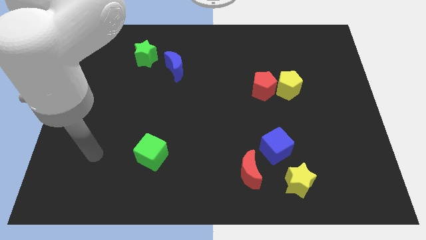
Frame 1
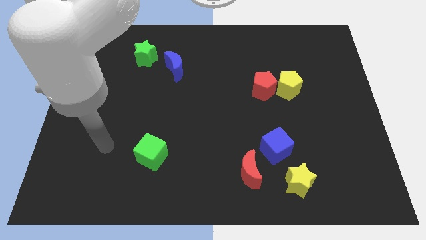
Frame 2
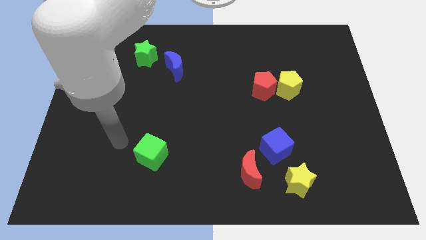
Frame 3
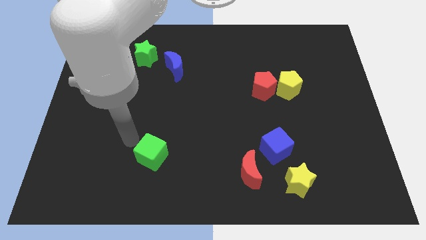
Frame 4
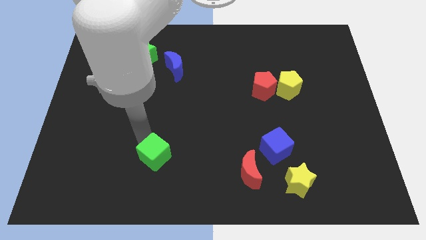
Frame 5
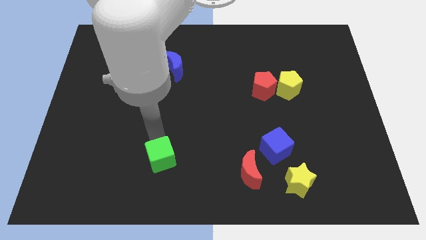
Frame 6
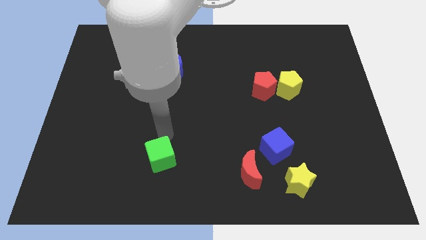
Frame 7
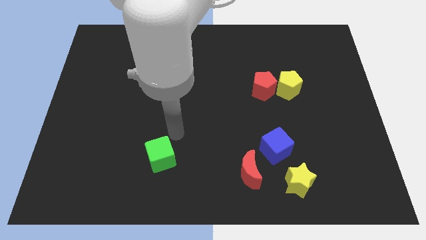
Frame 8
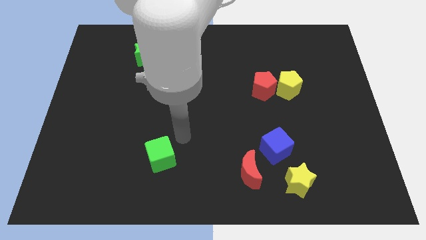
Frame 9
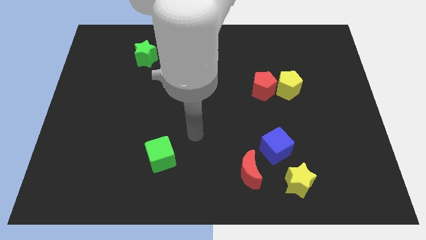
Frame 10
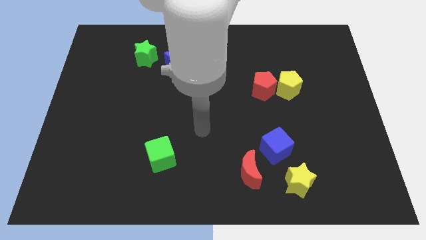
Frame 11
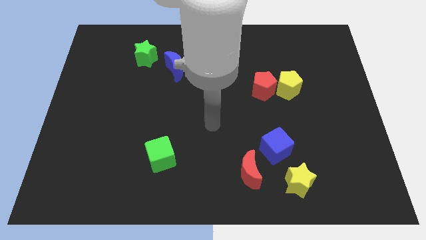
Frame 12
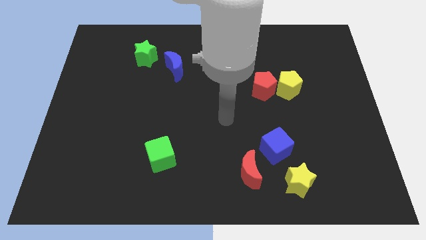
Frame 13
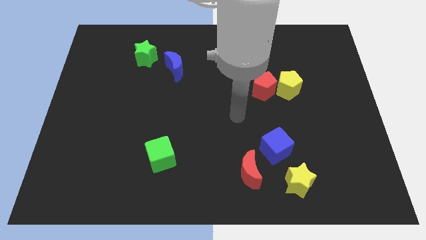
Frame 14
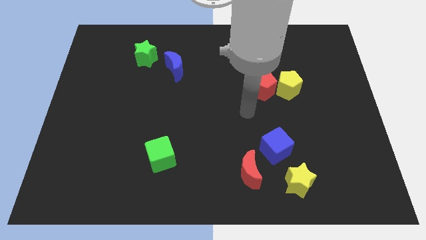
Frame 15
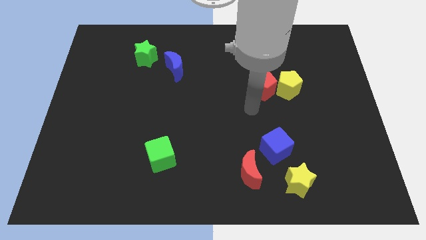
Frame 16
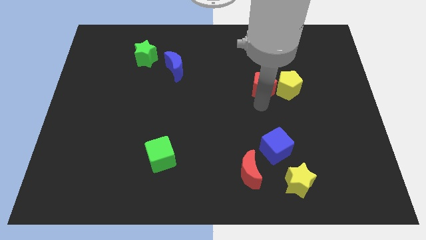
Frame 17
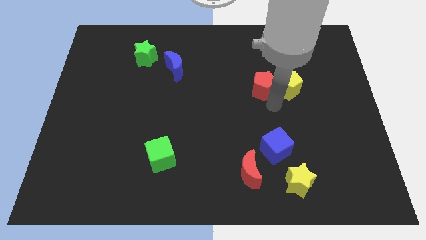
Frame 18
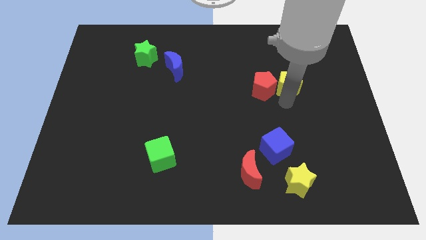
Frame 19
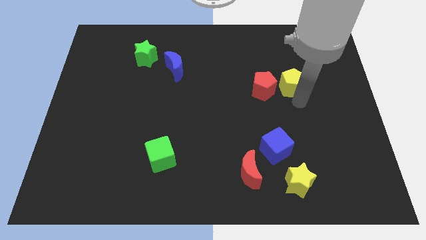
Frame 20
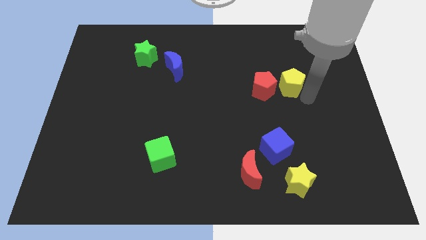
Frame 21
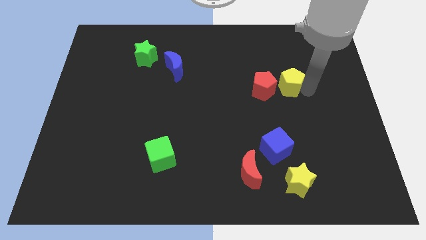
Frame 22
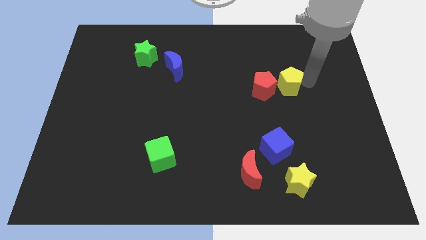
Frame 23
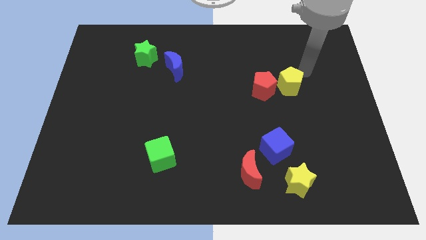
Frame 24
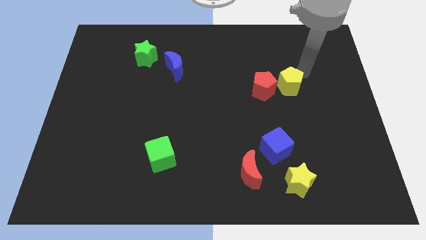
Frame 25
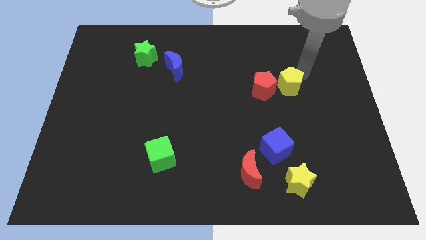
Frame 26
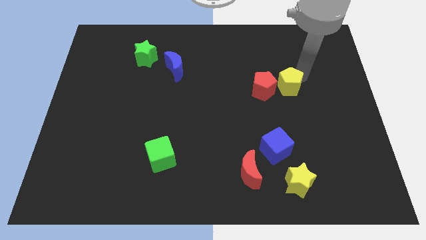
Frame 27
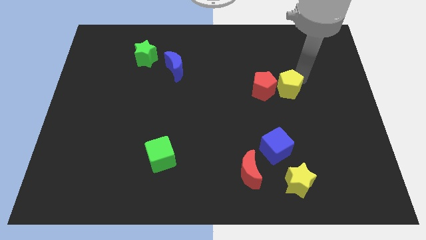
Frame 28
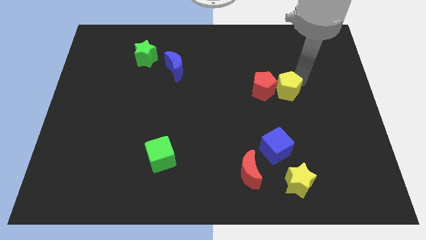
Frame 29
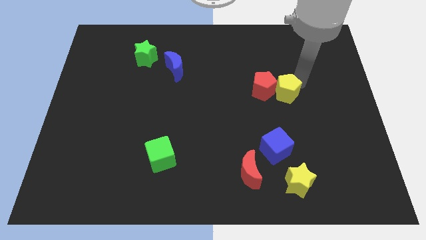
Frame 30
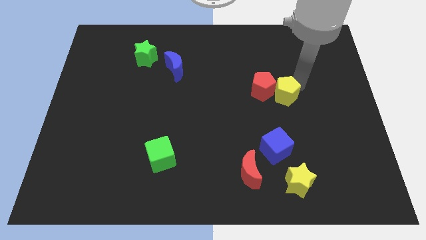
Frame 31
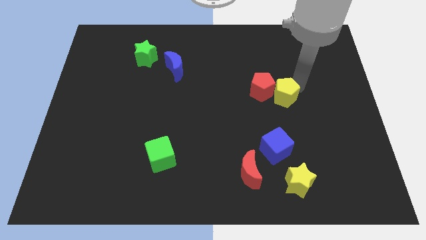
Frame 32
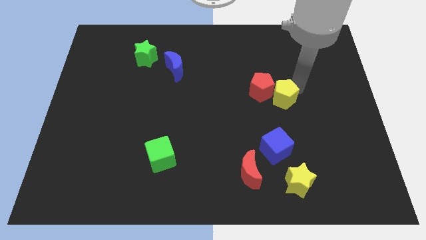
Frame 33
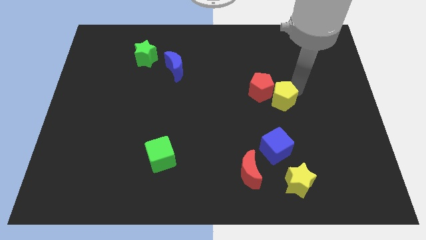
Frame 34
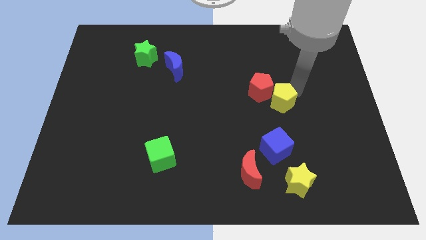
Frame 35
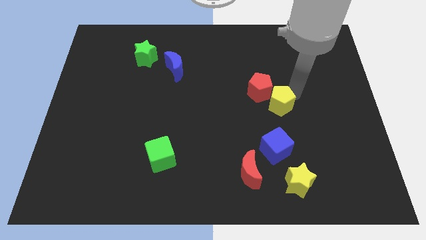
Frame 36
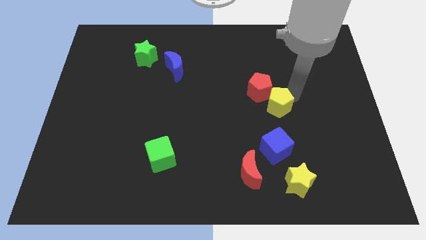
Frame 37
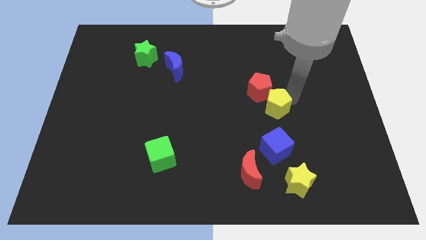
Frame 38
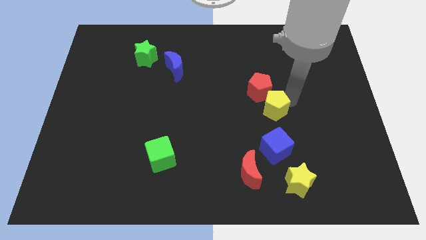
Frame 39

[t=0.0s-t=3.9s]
move the yellow pentagon somewhat downwards and then left

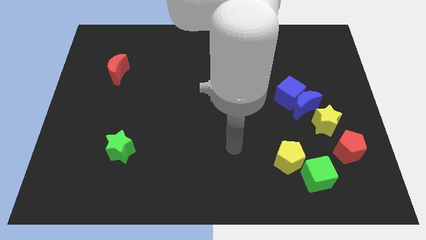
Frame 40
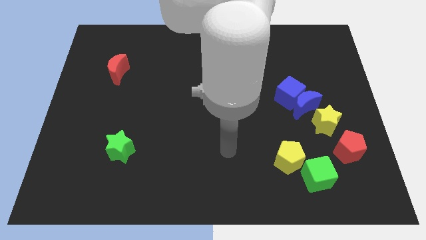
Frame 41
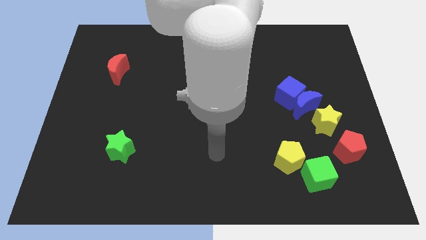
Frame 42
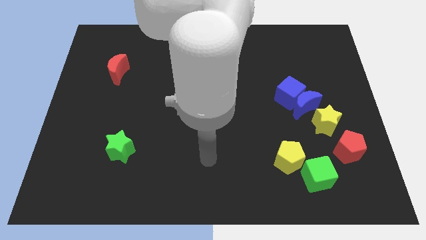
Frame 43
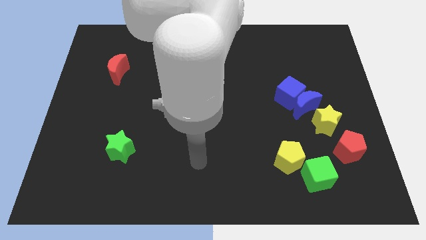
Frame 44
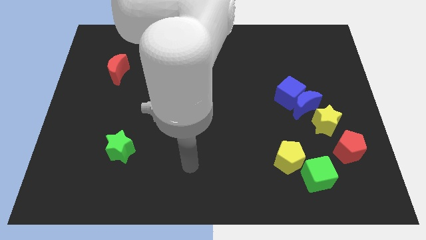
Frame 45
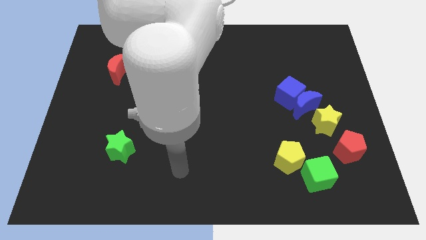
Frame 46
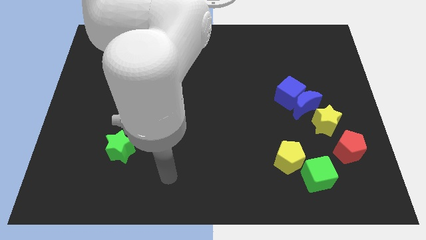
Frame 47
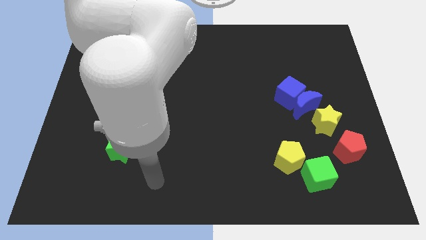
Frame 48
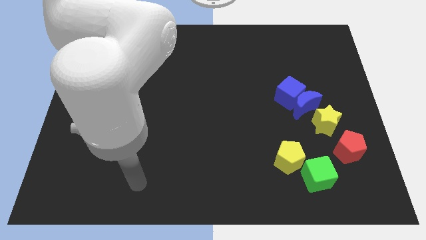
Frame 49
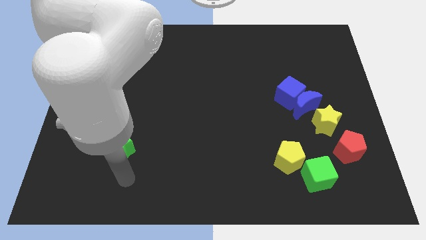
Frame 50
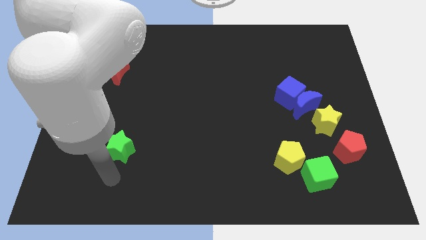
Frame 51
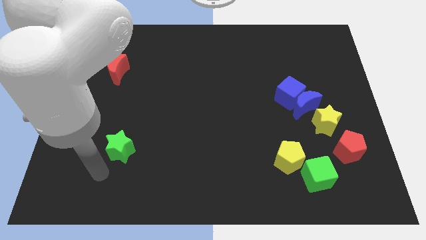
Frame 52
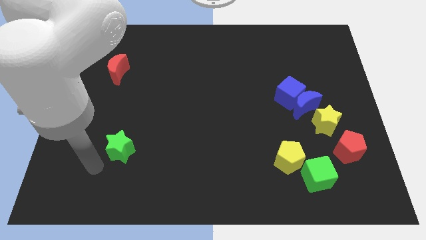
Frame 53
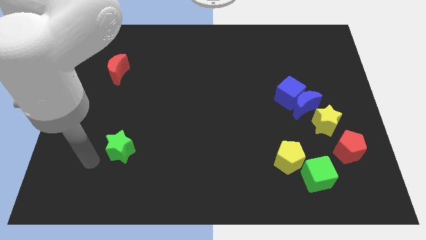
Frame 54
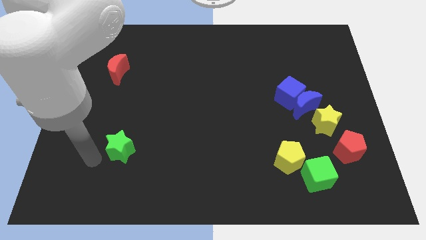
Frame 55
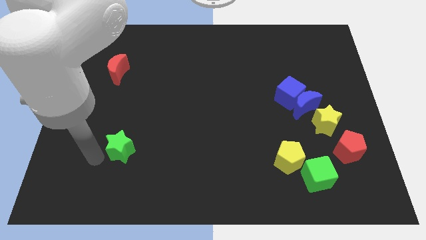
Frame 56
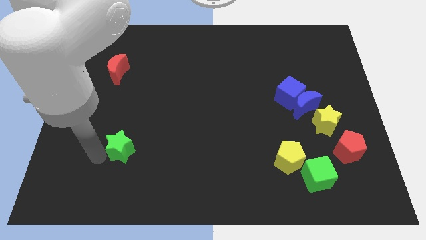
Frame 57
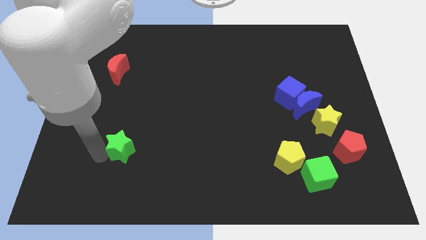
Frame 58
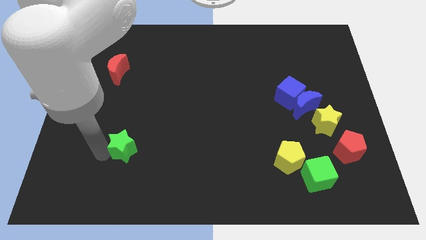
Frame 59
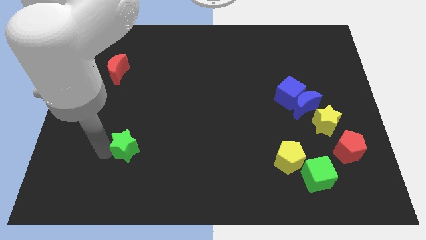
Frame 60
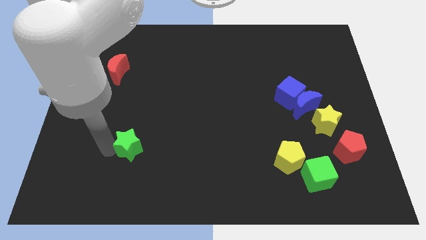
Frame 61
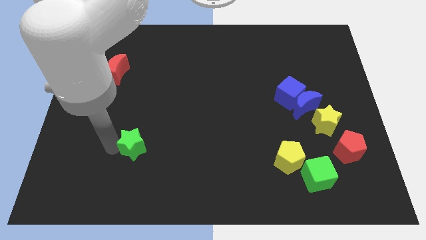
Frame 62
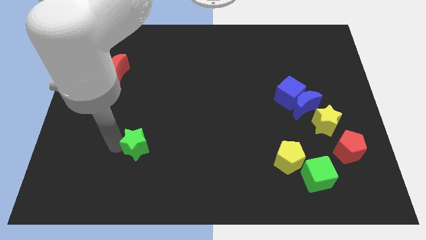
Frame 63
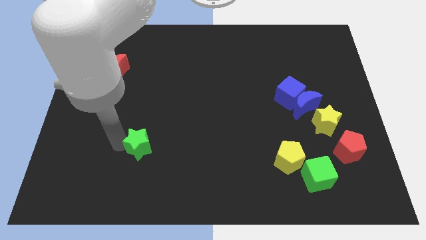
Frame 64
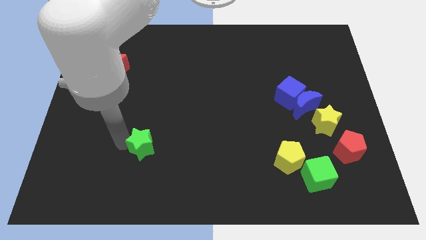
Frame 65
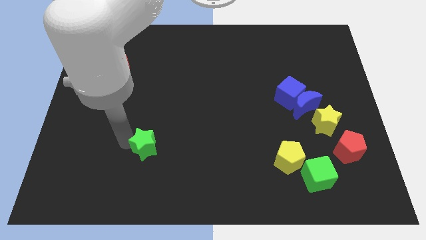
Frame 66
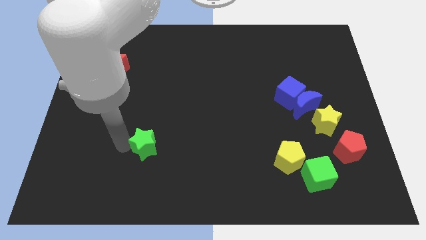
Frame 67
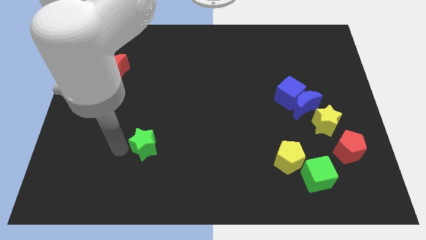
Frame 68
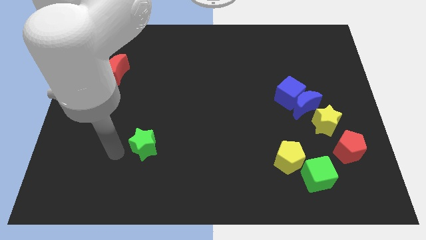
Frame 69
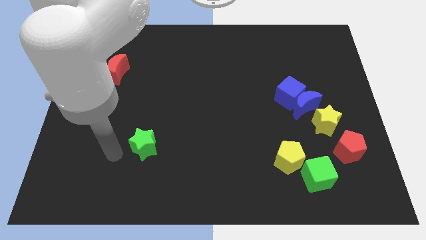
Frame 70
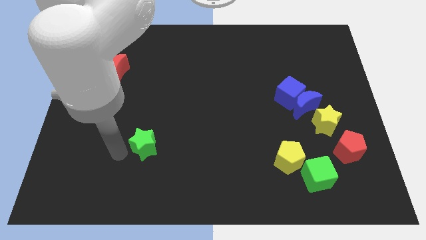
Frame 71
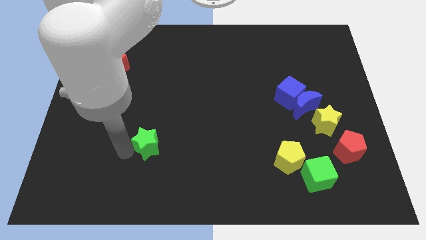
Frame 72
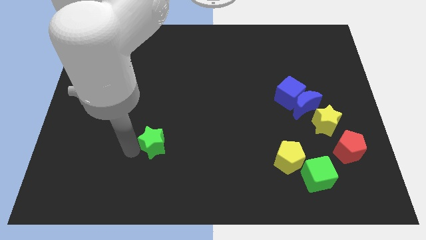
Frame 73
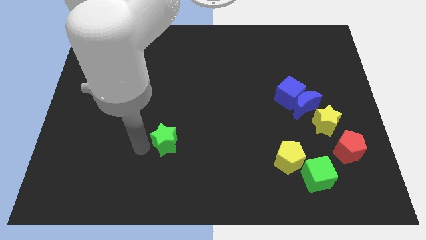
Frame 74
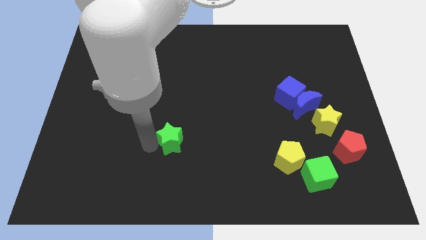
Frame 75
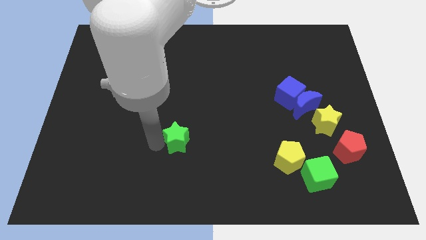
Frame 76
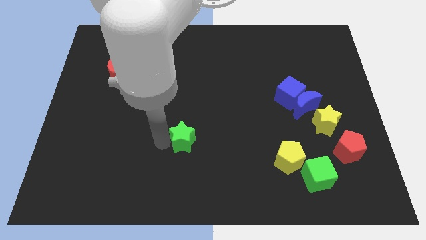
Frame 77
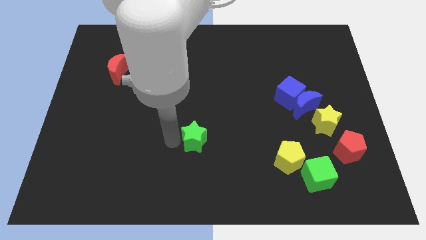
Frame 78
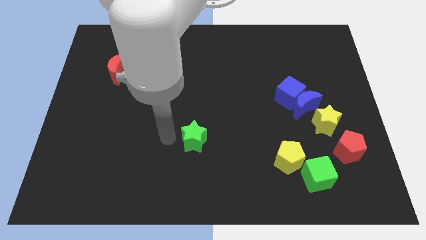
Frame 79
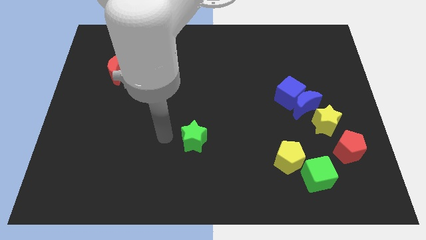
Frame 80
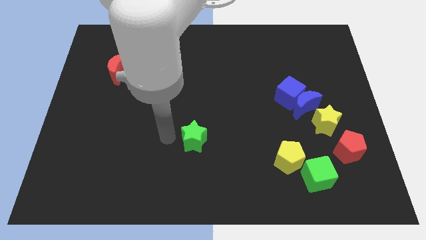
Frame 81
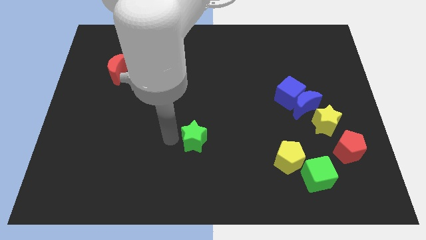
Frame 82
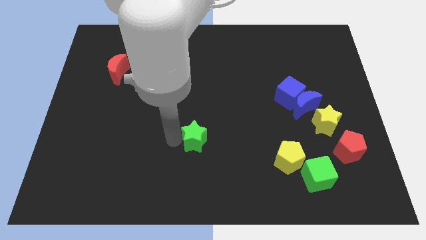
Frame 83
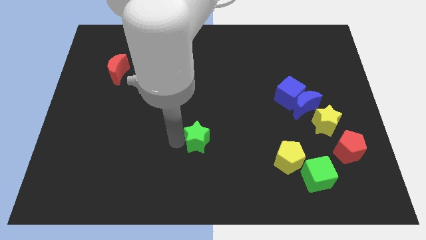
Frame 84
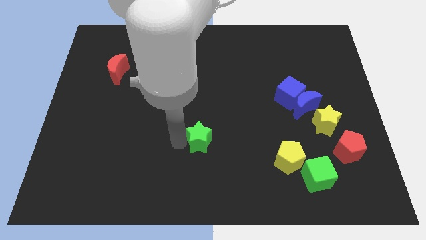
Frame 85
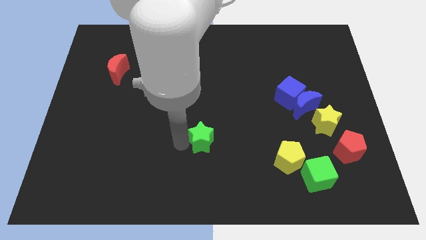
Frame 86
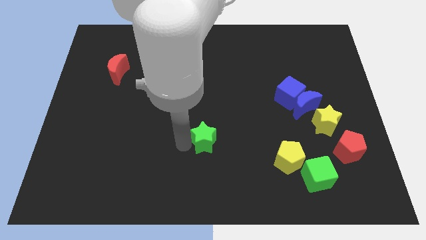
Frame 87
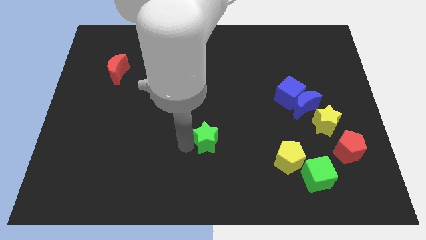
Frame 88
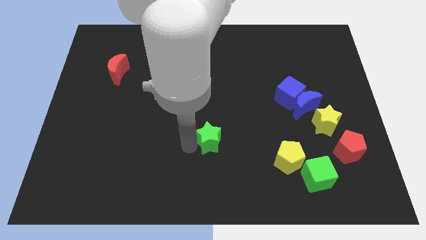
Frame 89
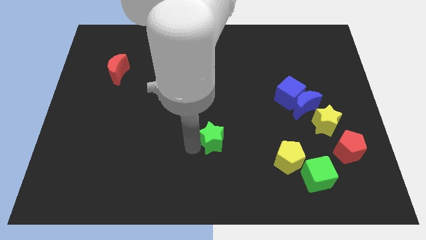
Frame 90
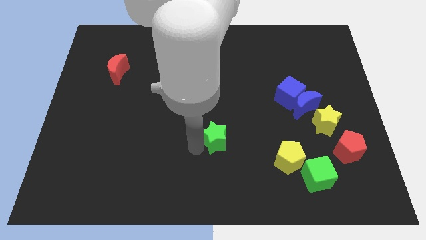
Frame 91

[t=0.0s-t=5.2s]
push the green star to the right
